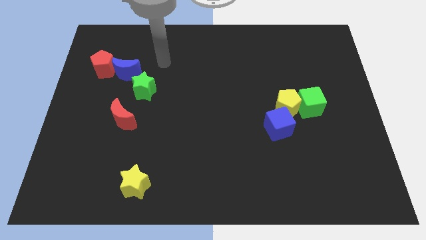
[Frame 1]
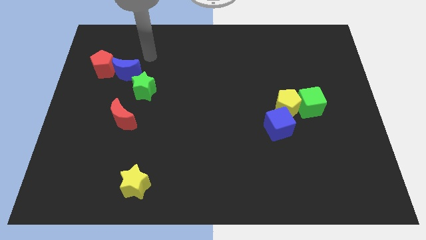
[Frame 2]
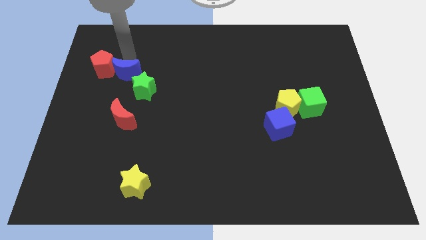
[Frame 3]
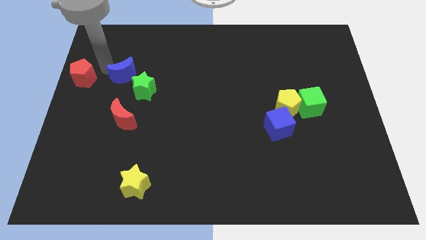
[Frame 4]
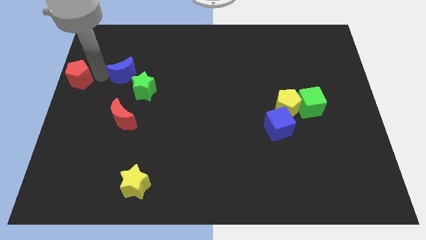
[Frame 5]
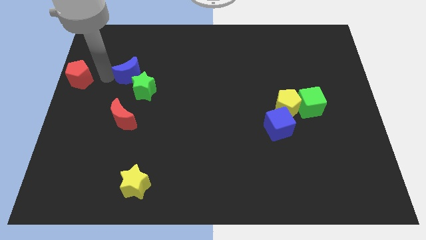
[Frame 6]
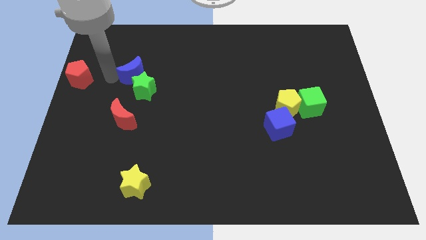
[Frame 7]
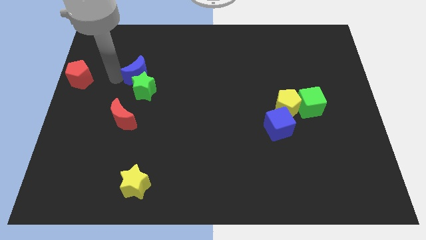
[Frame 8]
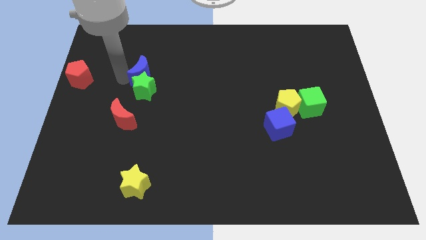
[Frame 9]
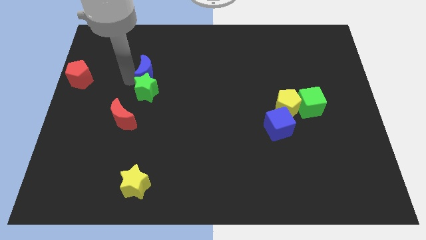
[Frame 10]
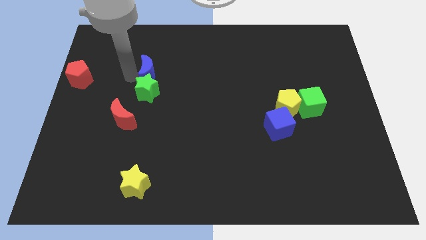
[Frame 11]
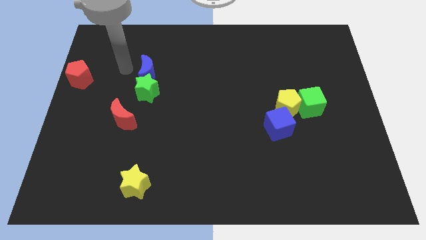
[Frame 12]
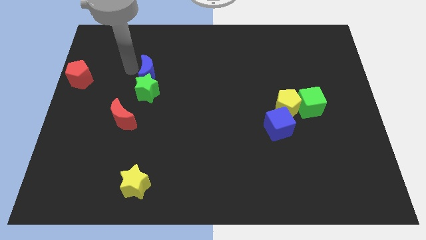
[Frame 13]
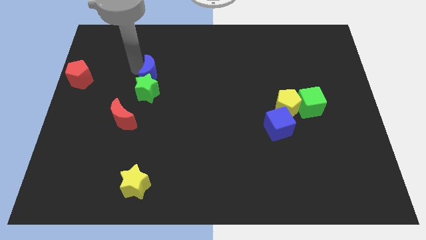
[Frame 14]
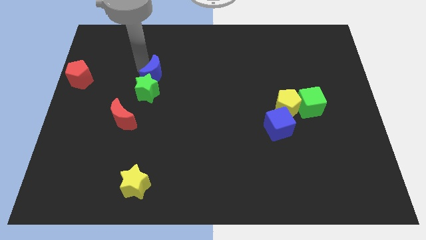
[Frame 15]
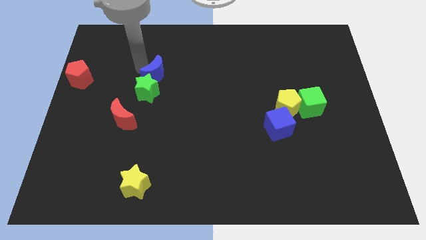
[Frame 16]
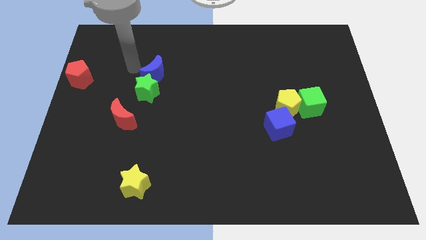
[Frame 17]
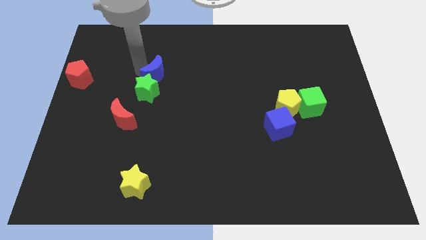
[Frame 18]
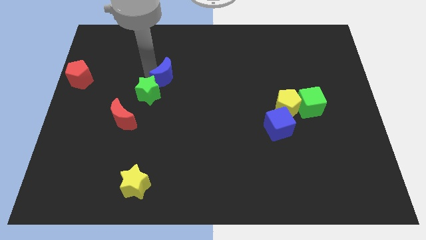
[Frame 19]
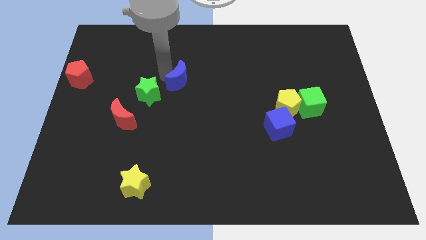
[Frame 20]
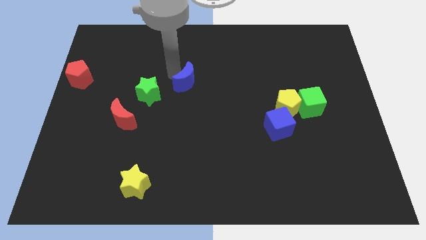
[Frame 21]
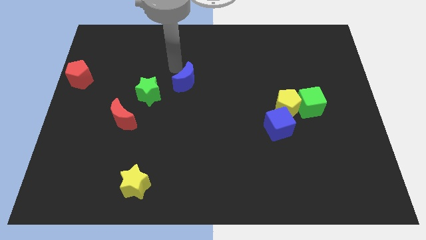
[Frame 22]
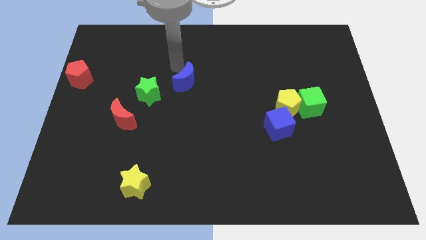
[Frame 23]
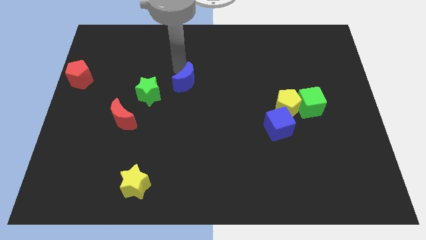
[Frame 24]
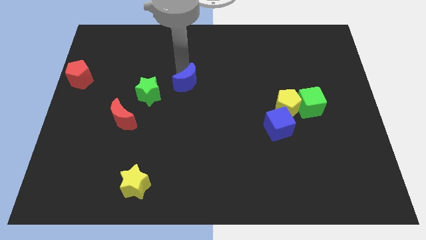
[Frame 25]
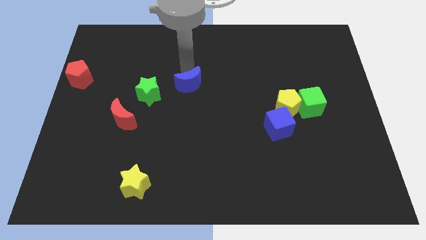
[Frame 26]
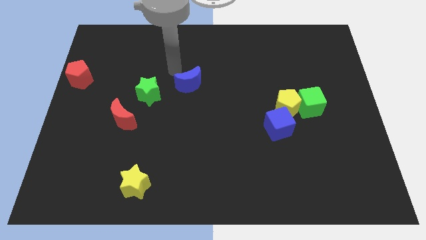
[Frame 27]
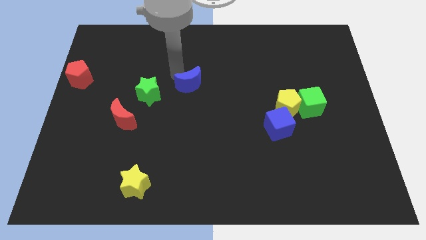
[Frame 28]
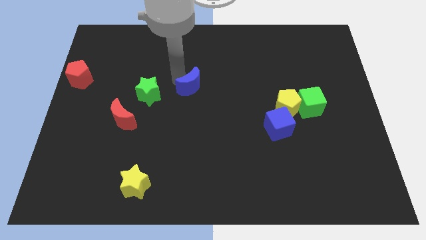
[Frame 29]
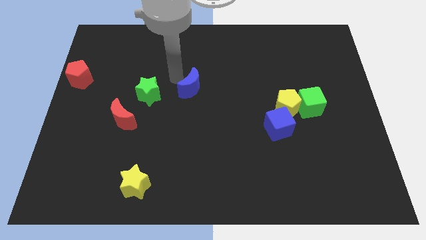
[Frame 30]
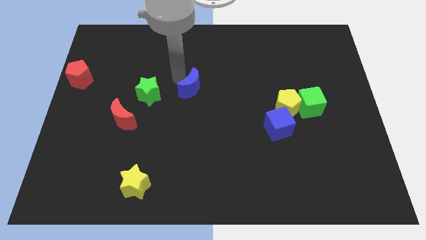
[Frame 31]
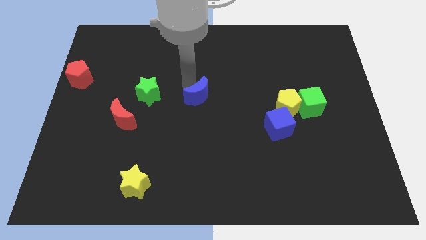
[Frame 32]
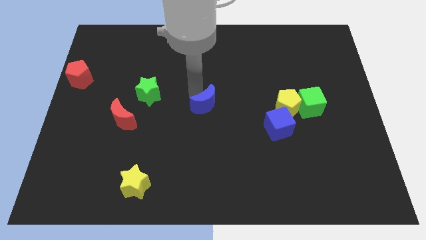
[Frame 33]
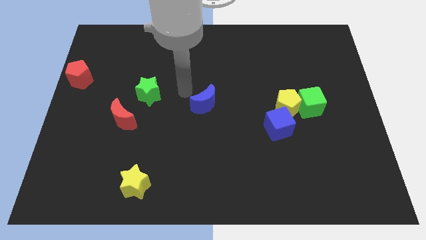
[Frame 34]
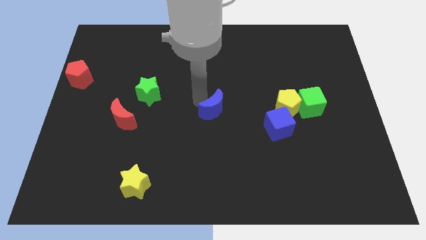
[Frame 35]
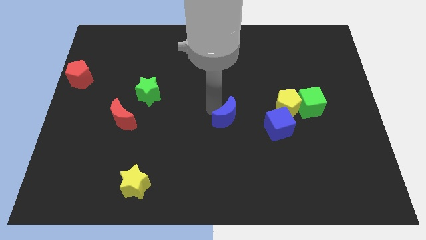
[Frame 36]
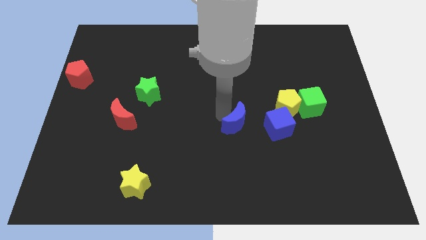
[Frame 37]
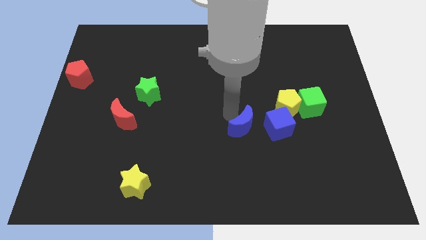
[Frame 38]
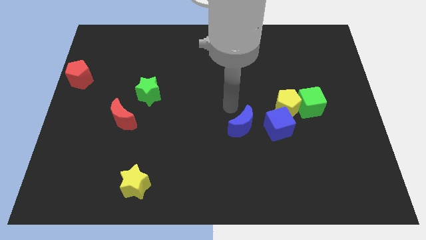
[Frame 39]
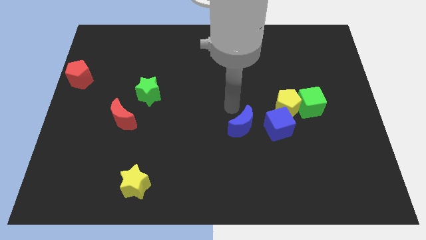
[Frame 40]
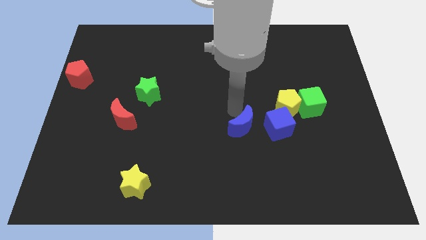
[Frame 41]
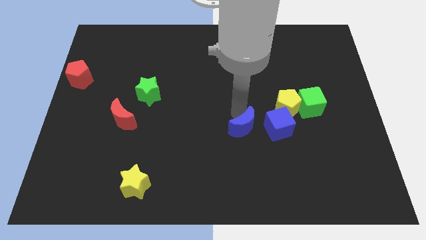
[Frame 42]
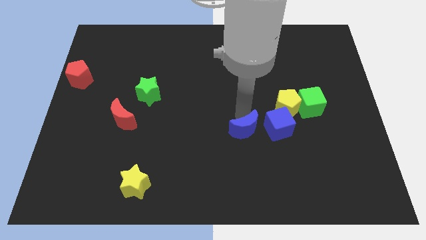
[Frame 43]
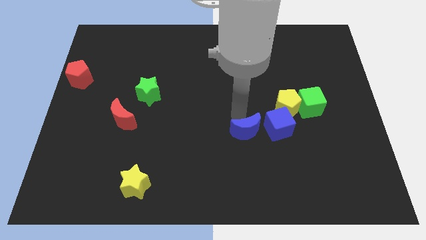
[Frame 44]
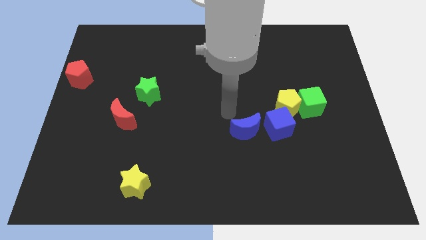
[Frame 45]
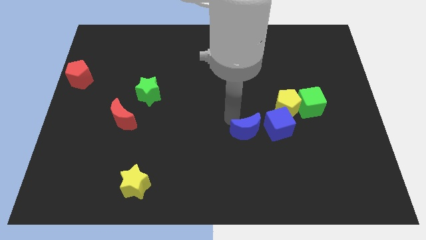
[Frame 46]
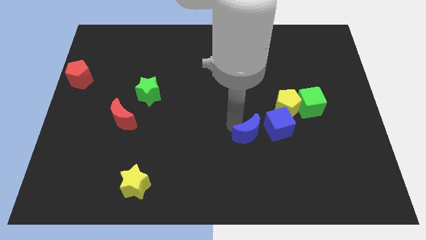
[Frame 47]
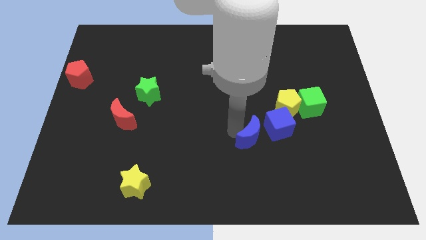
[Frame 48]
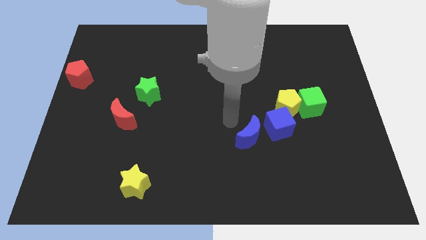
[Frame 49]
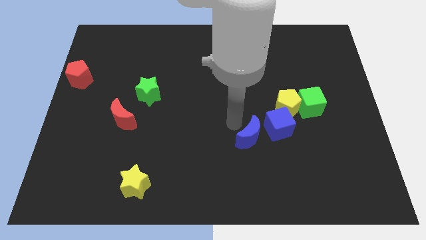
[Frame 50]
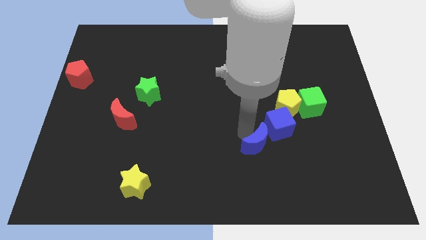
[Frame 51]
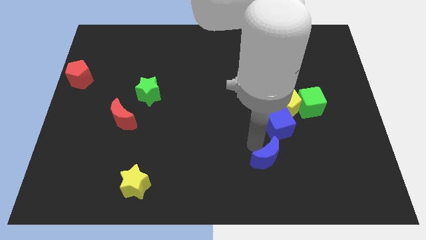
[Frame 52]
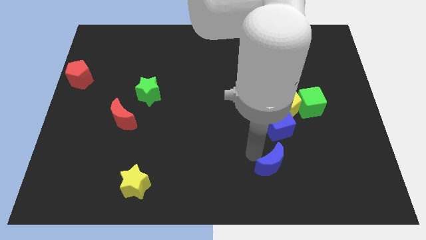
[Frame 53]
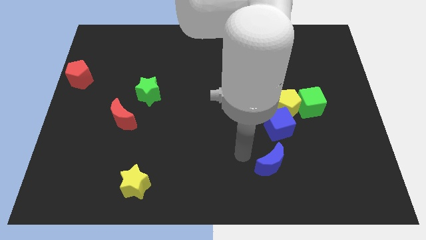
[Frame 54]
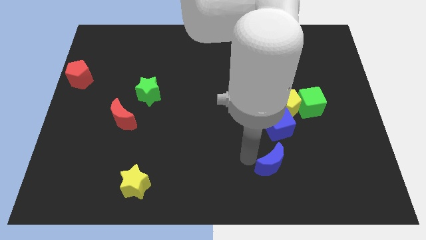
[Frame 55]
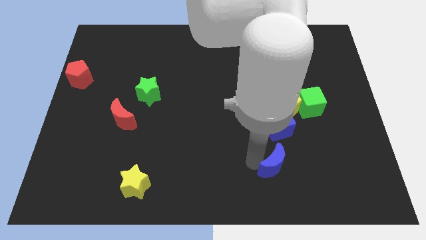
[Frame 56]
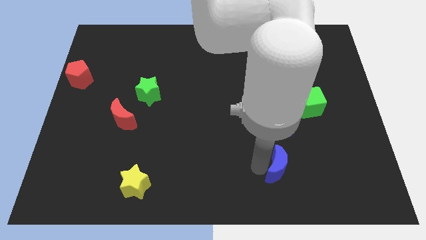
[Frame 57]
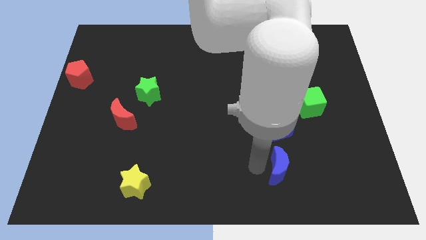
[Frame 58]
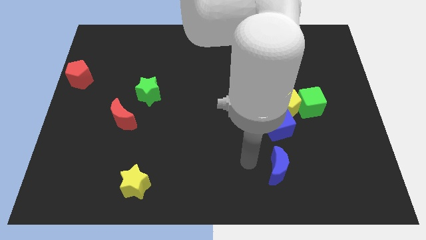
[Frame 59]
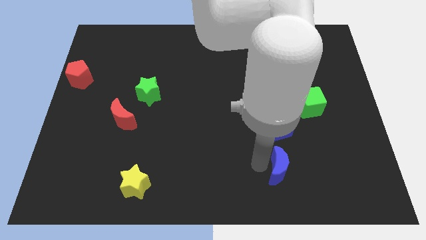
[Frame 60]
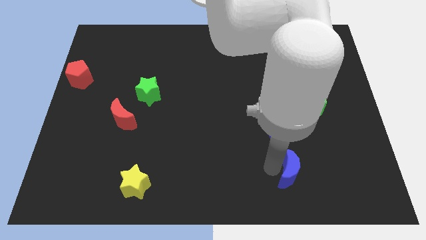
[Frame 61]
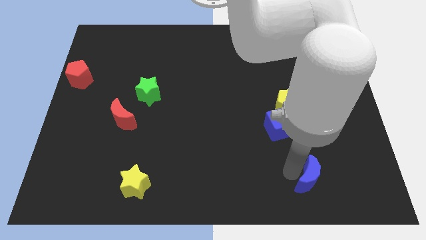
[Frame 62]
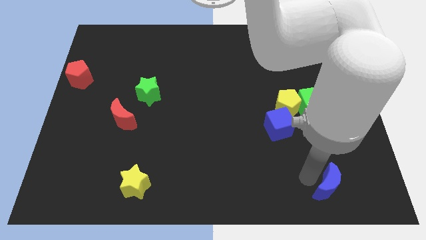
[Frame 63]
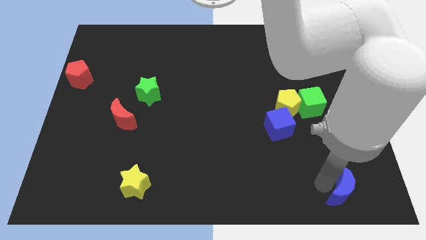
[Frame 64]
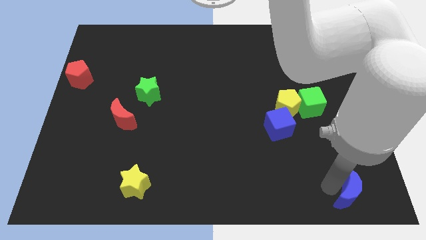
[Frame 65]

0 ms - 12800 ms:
move the blue moon to the bottom right corner
